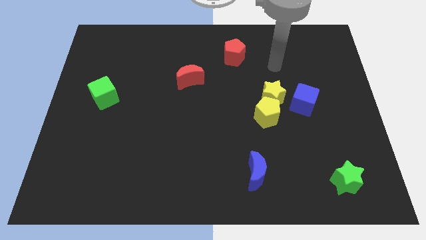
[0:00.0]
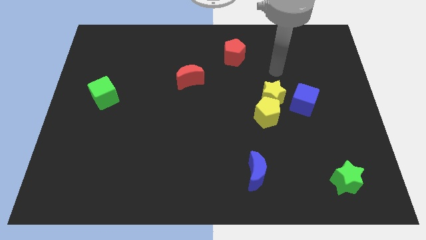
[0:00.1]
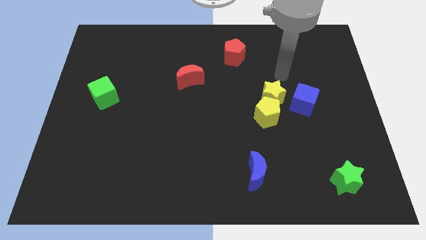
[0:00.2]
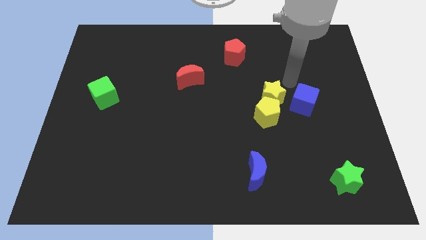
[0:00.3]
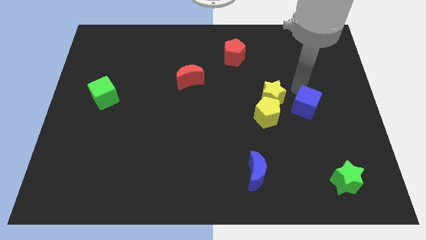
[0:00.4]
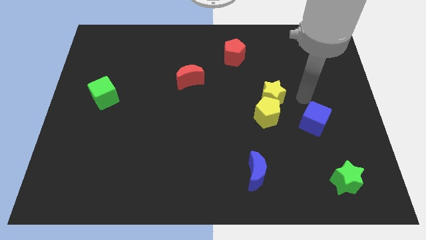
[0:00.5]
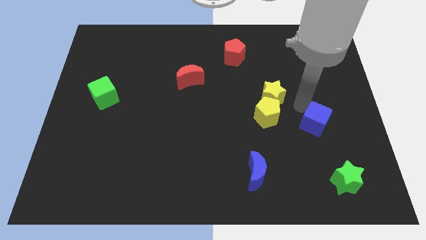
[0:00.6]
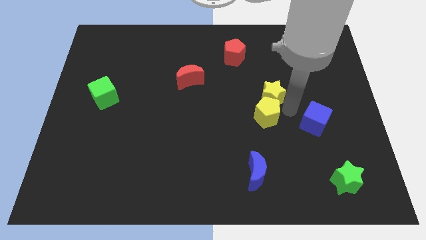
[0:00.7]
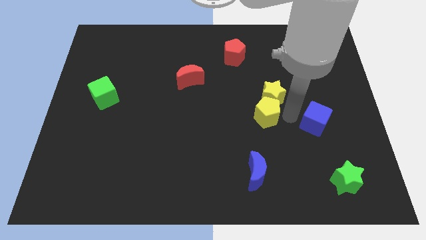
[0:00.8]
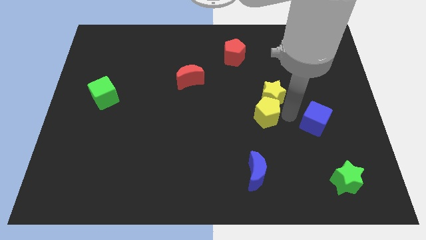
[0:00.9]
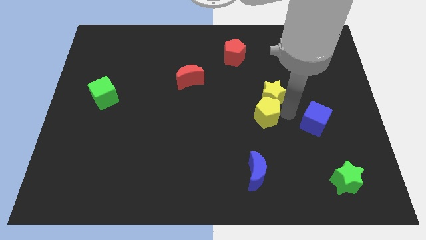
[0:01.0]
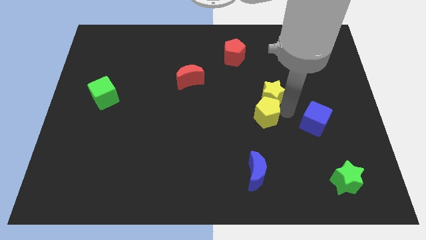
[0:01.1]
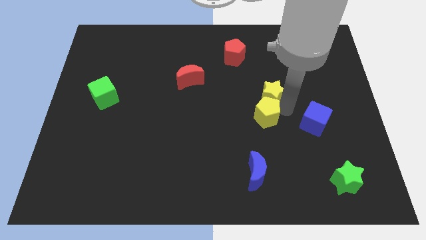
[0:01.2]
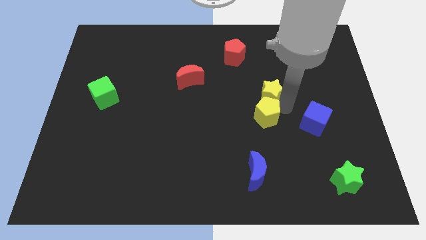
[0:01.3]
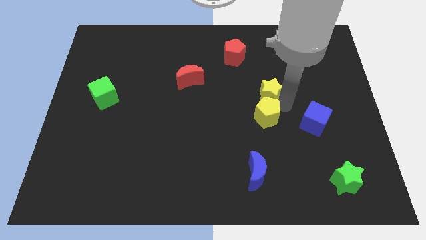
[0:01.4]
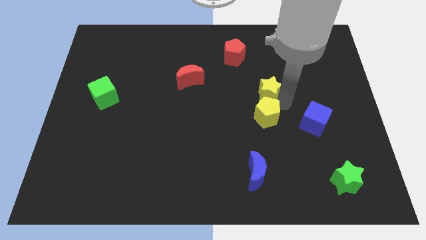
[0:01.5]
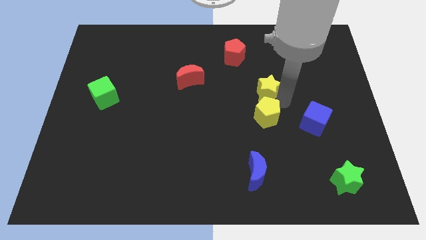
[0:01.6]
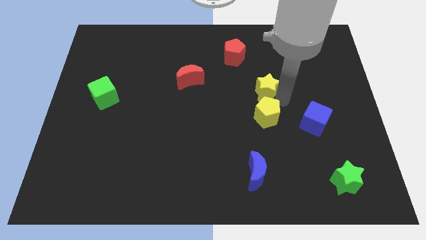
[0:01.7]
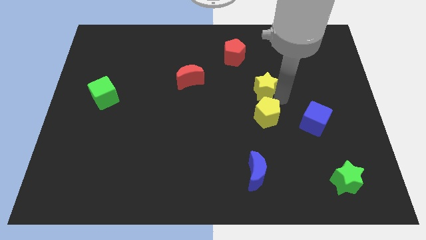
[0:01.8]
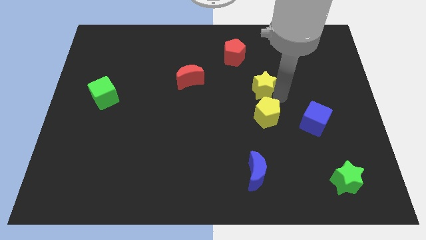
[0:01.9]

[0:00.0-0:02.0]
pull the yellow star apart from the yellow pentagon and blue cube

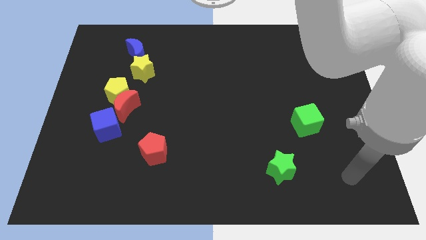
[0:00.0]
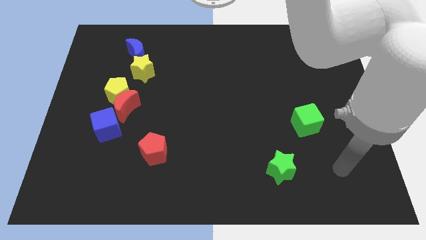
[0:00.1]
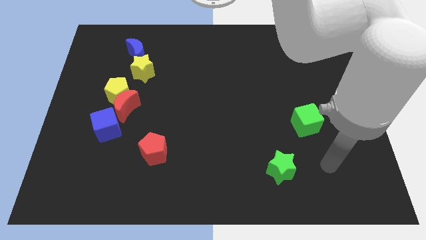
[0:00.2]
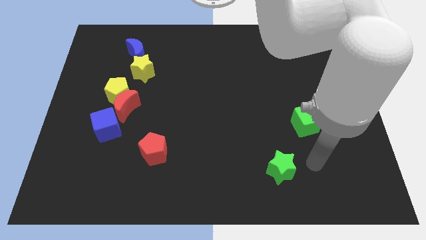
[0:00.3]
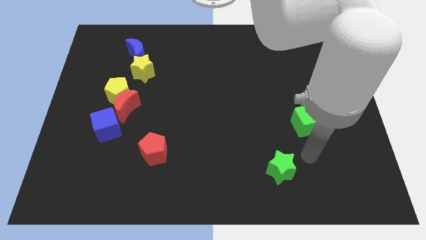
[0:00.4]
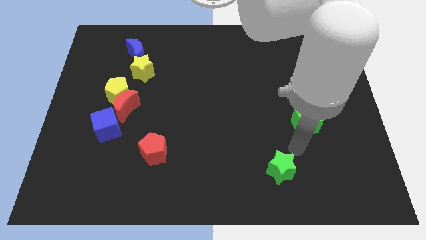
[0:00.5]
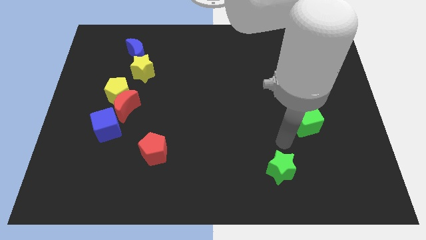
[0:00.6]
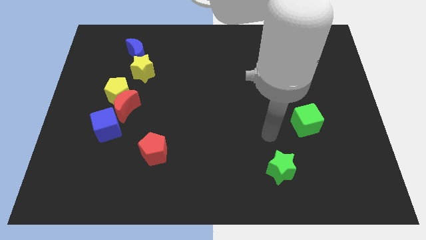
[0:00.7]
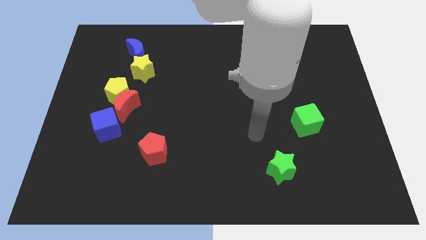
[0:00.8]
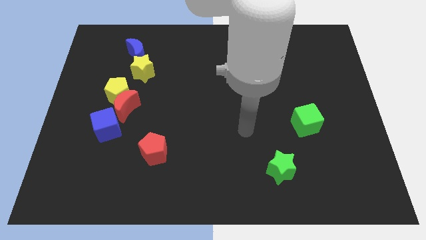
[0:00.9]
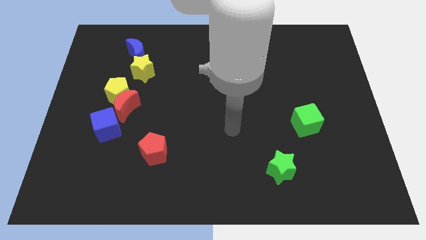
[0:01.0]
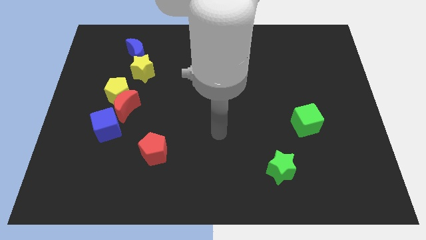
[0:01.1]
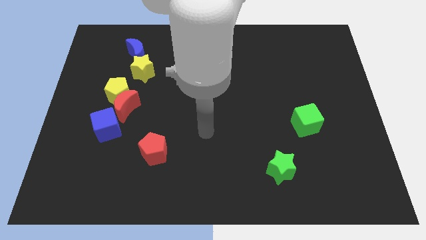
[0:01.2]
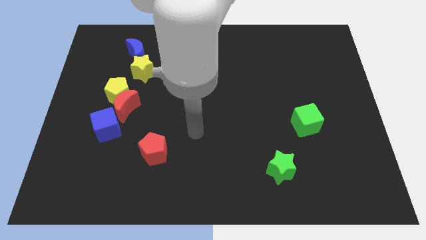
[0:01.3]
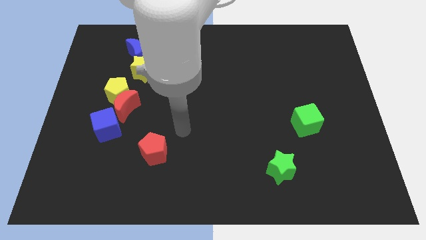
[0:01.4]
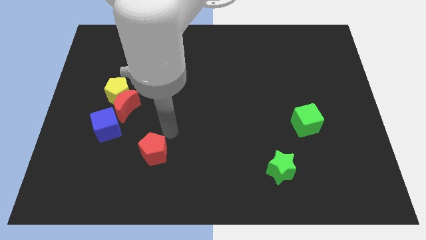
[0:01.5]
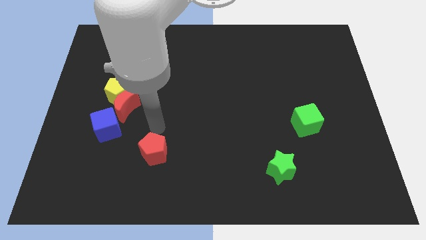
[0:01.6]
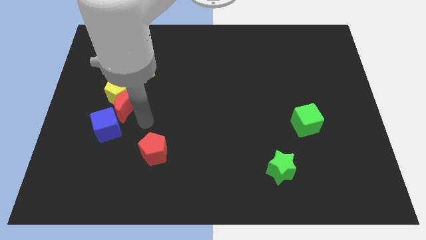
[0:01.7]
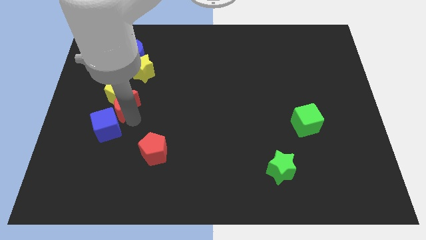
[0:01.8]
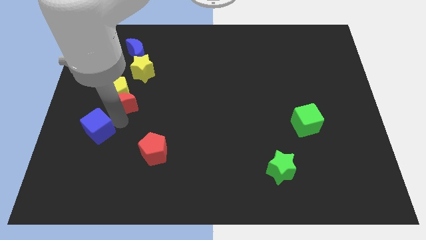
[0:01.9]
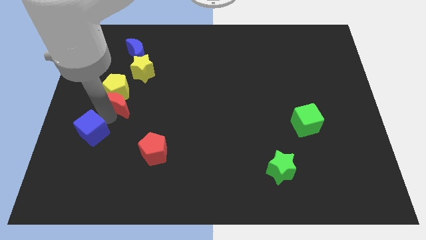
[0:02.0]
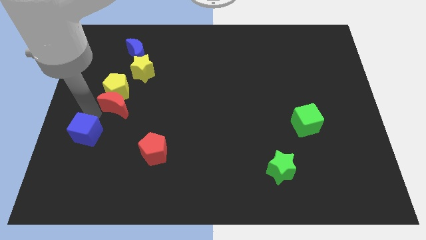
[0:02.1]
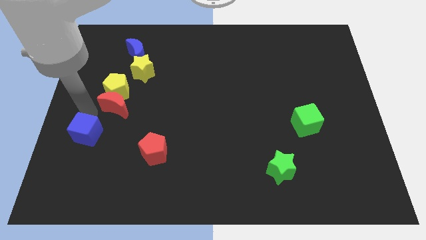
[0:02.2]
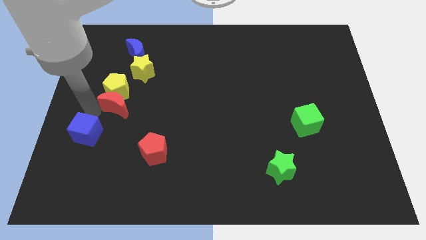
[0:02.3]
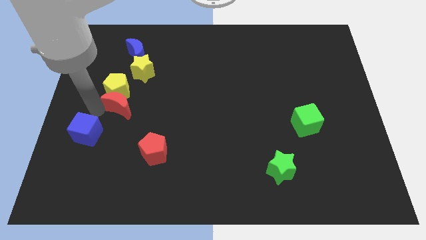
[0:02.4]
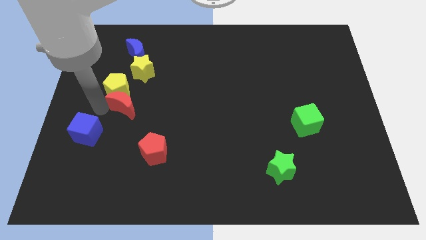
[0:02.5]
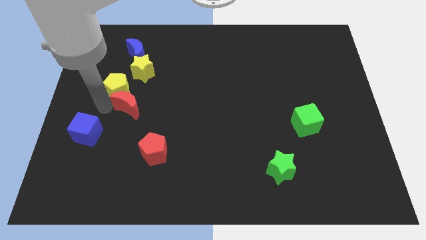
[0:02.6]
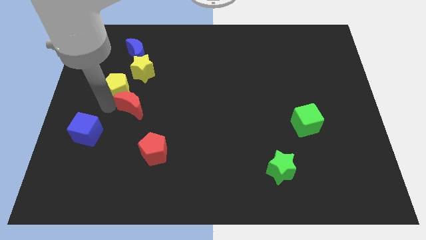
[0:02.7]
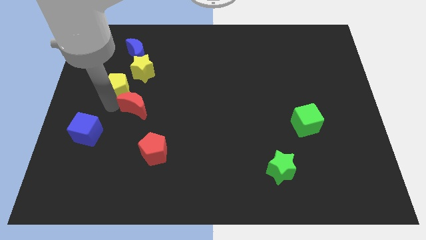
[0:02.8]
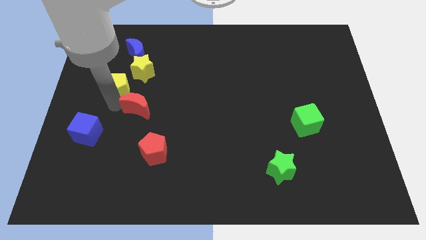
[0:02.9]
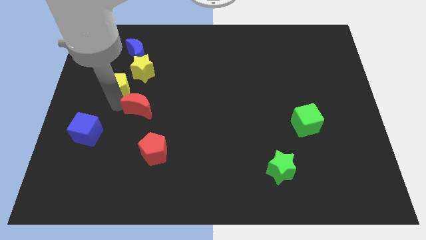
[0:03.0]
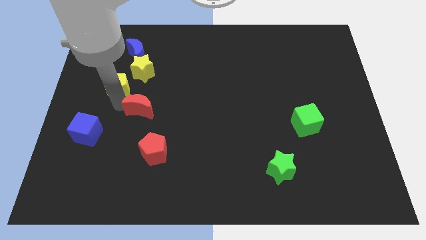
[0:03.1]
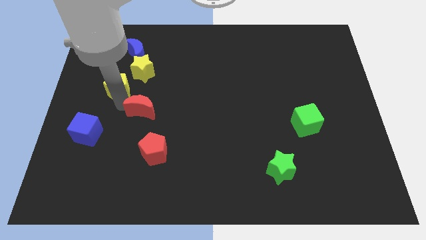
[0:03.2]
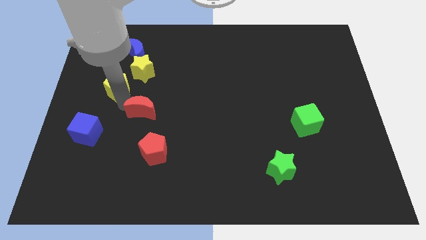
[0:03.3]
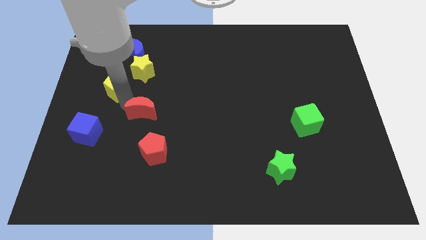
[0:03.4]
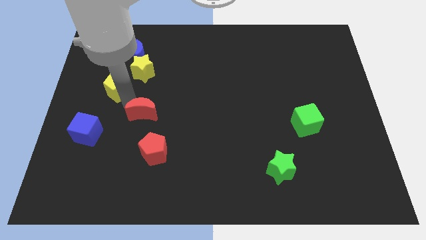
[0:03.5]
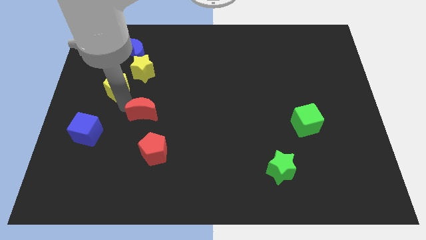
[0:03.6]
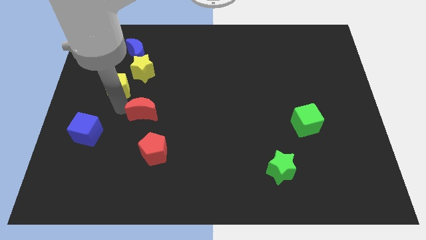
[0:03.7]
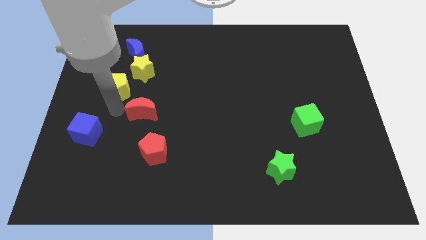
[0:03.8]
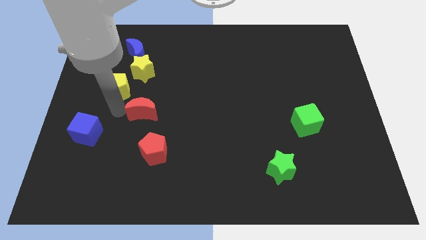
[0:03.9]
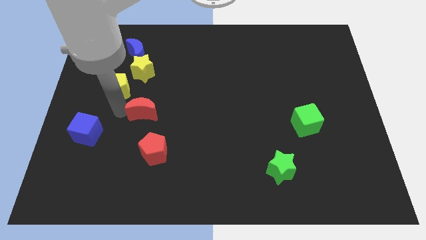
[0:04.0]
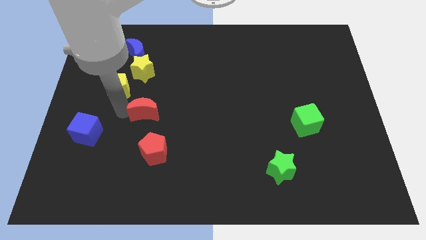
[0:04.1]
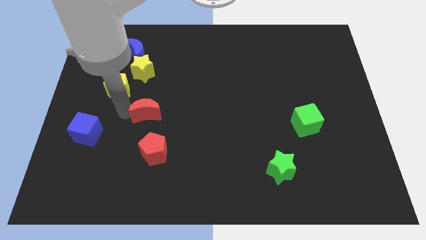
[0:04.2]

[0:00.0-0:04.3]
move the red moon away from the yellow pentagon and blue cube

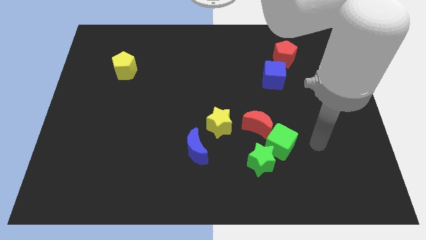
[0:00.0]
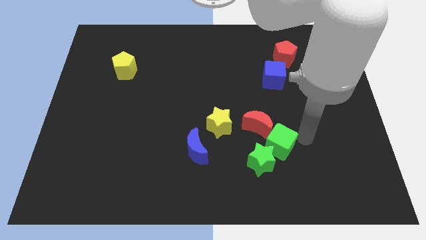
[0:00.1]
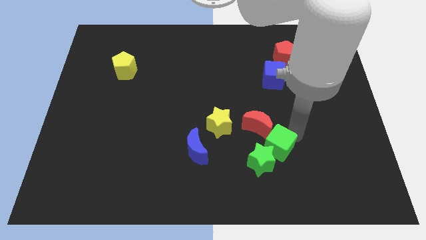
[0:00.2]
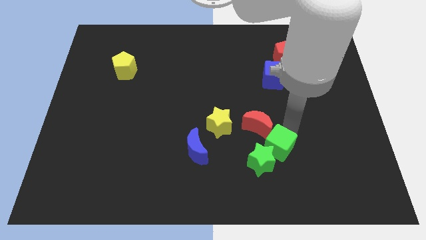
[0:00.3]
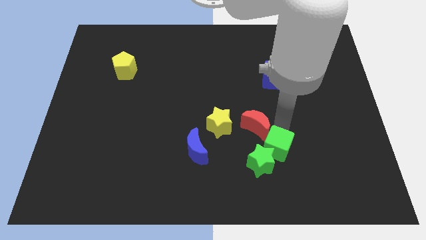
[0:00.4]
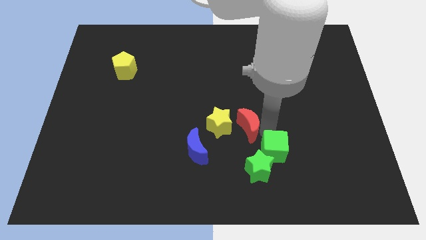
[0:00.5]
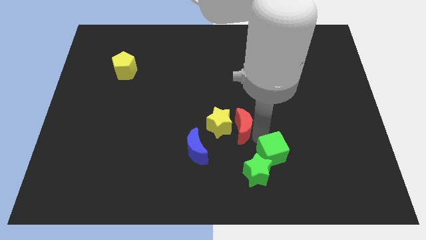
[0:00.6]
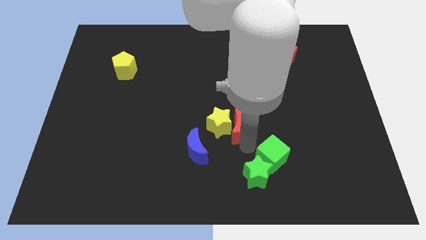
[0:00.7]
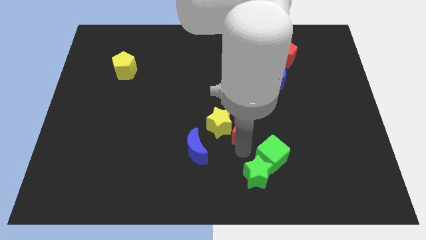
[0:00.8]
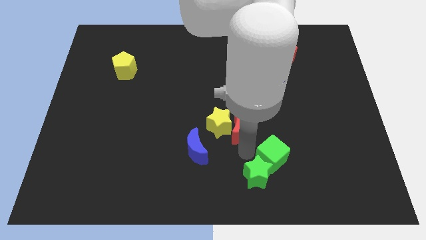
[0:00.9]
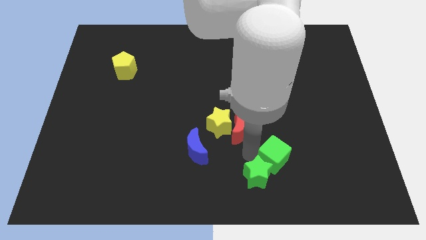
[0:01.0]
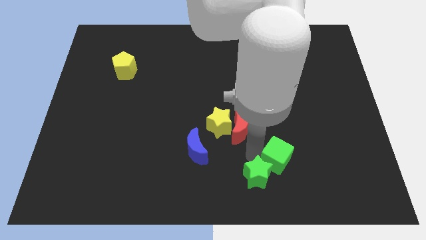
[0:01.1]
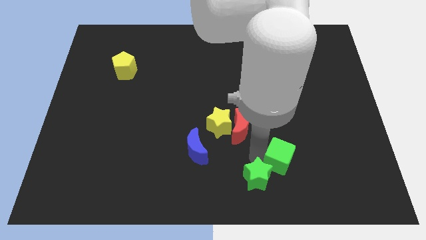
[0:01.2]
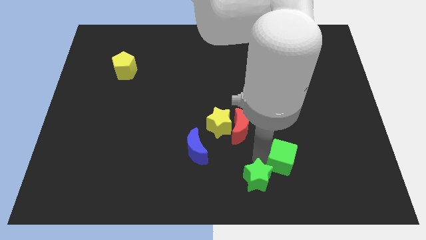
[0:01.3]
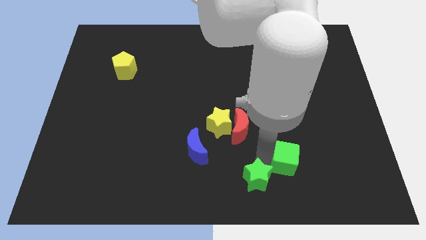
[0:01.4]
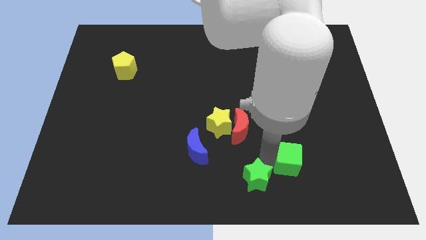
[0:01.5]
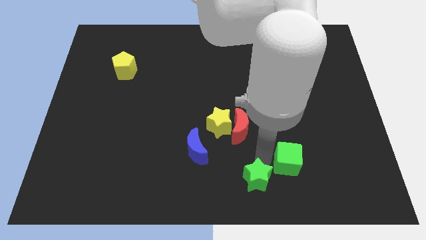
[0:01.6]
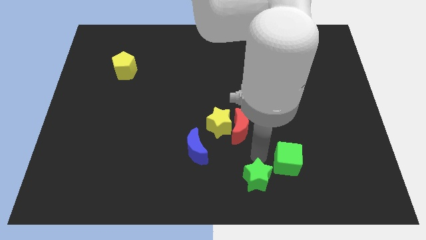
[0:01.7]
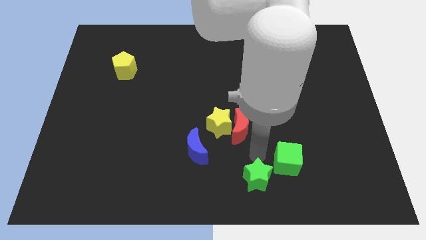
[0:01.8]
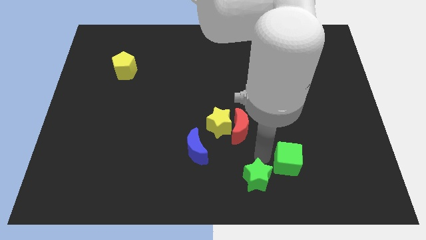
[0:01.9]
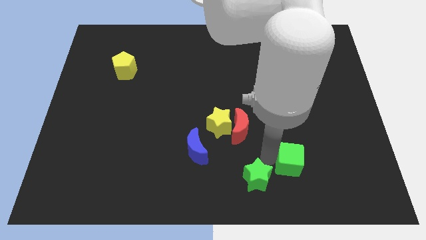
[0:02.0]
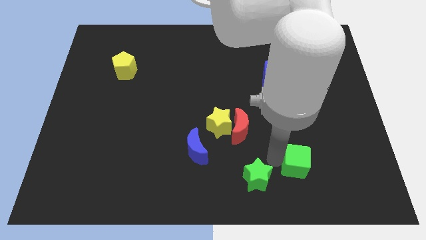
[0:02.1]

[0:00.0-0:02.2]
separate the green cube from the green star and red moon

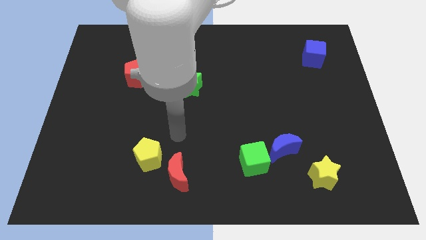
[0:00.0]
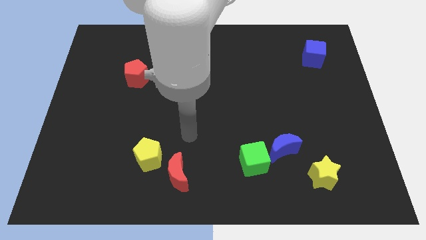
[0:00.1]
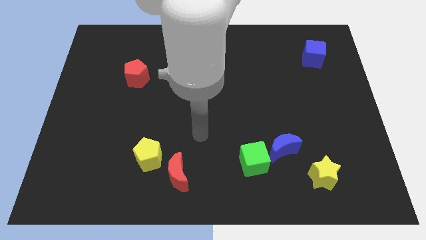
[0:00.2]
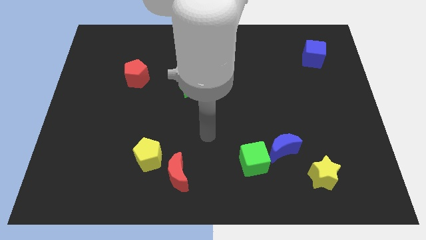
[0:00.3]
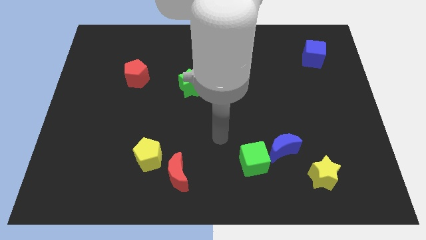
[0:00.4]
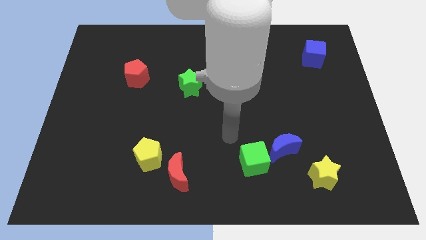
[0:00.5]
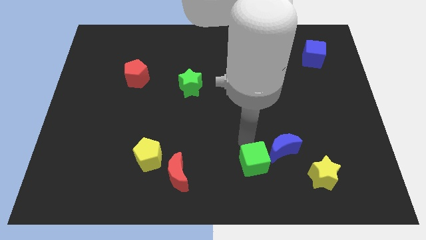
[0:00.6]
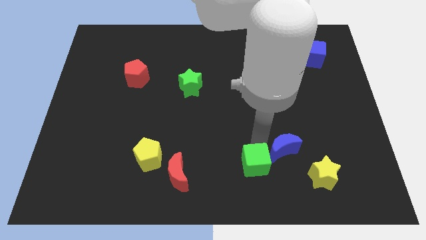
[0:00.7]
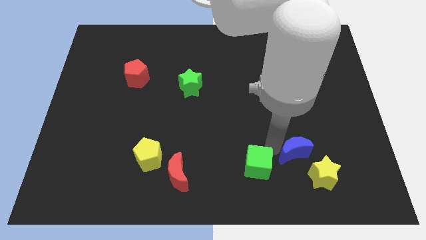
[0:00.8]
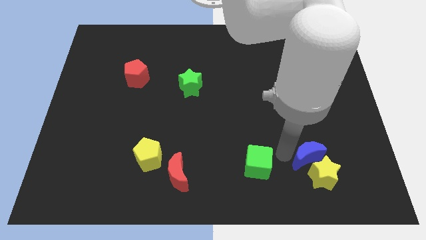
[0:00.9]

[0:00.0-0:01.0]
move the green cube away from the blue moon

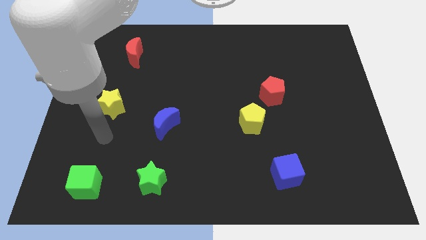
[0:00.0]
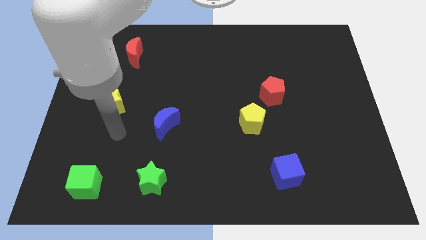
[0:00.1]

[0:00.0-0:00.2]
move the red pentagon away from the yellow pentagon
